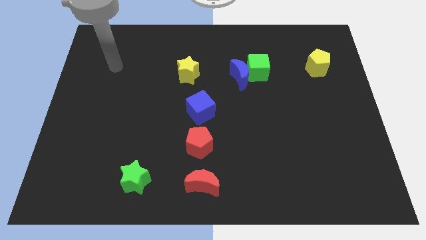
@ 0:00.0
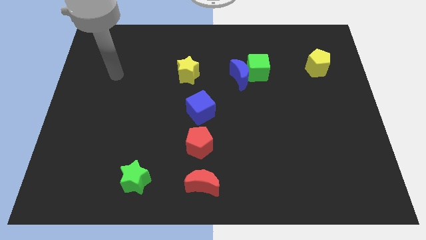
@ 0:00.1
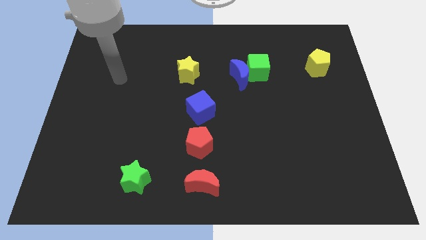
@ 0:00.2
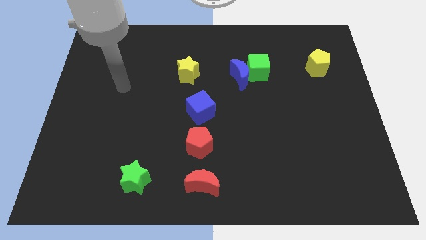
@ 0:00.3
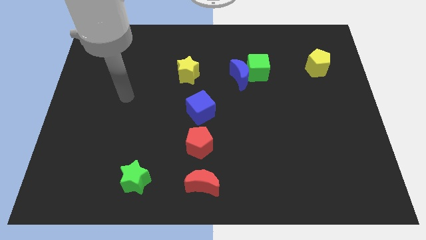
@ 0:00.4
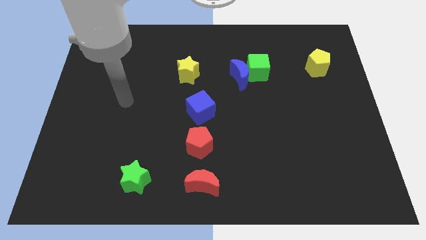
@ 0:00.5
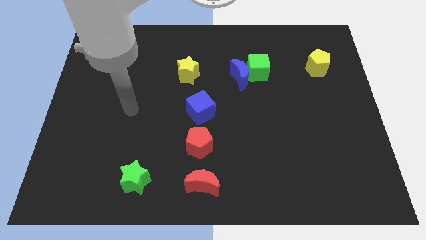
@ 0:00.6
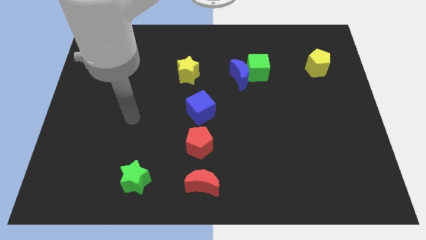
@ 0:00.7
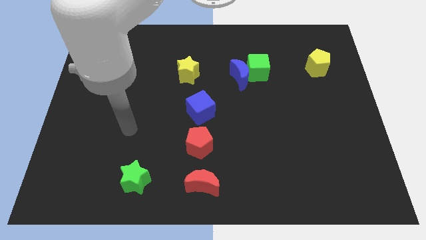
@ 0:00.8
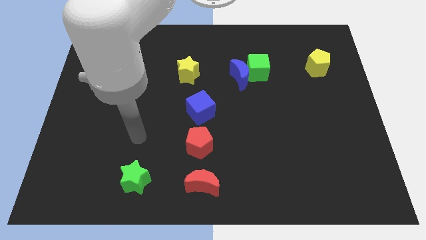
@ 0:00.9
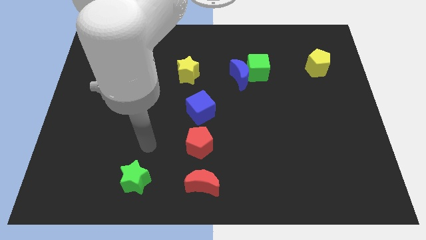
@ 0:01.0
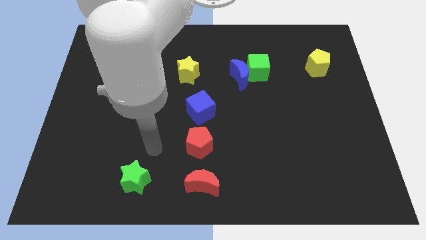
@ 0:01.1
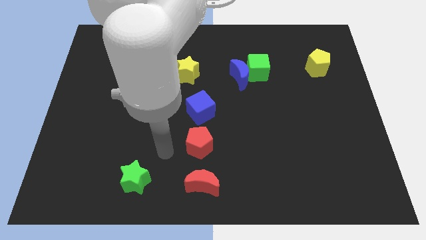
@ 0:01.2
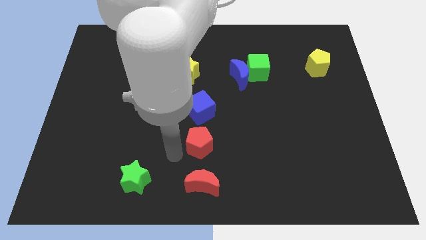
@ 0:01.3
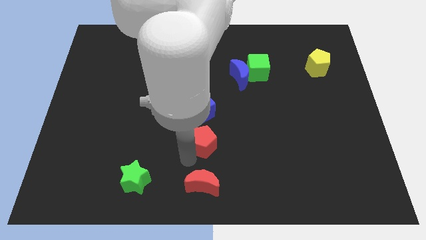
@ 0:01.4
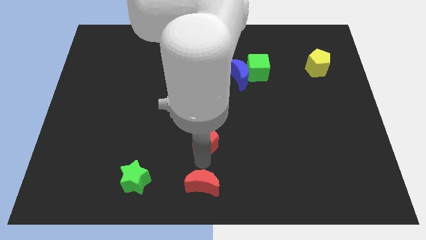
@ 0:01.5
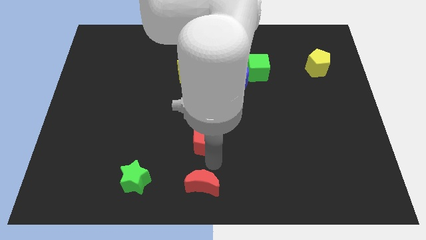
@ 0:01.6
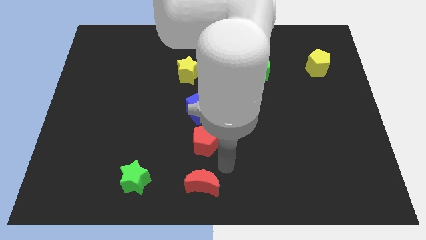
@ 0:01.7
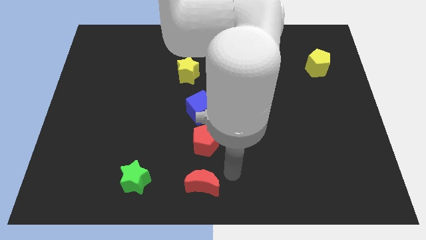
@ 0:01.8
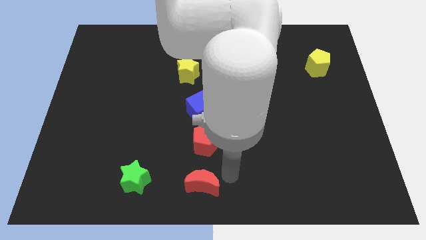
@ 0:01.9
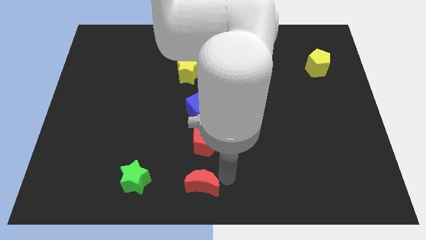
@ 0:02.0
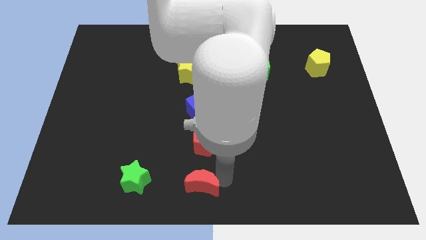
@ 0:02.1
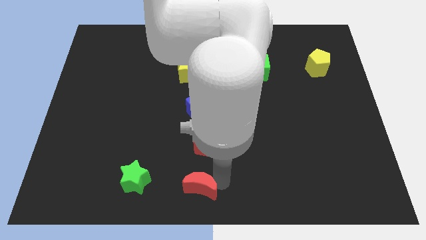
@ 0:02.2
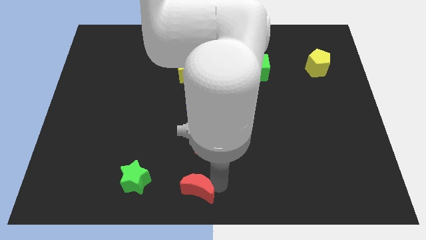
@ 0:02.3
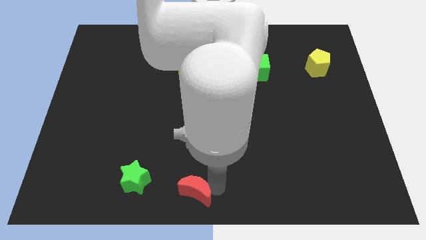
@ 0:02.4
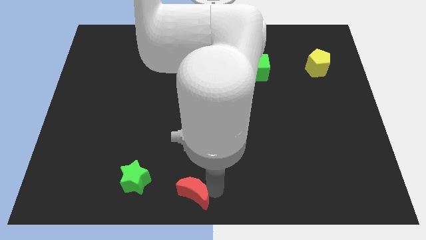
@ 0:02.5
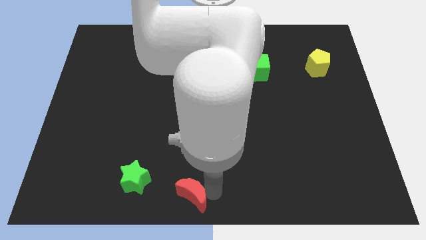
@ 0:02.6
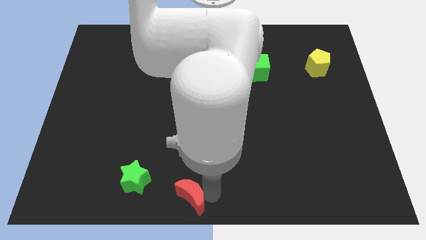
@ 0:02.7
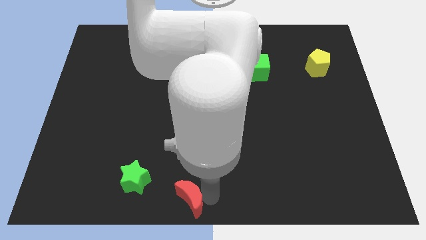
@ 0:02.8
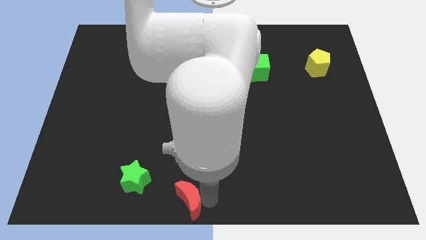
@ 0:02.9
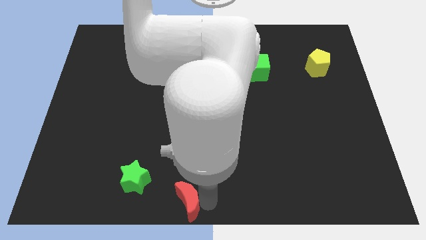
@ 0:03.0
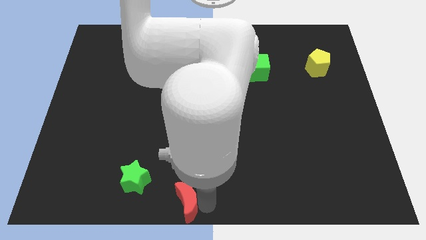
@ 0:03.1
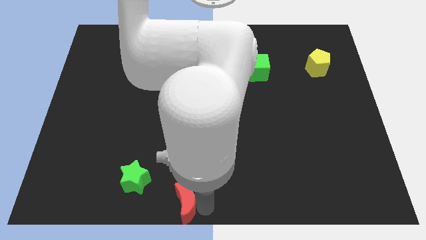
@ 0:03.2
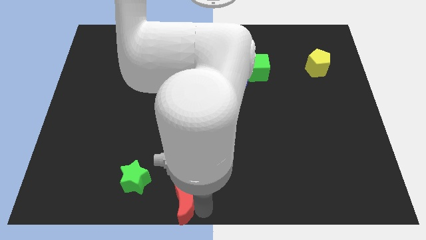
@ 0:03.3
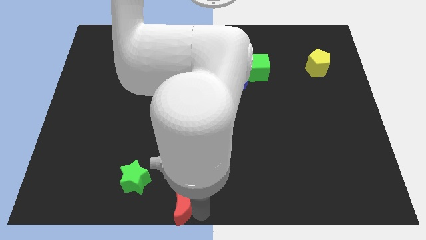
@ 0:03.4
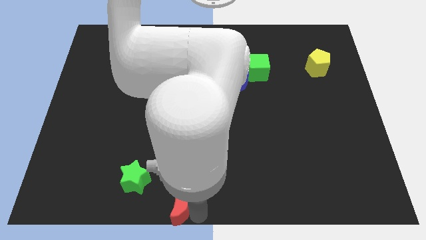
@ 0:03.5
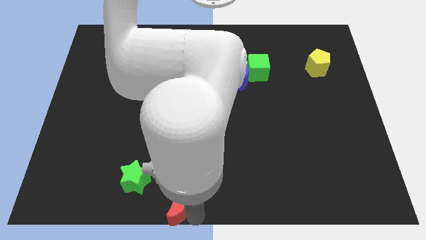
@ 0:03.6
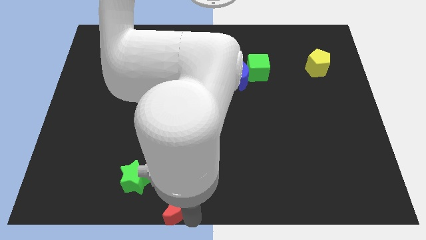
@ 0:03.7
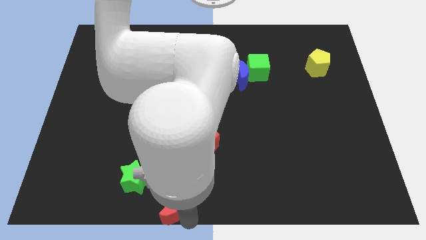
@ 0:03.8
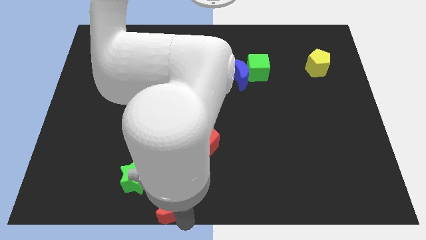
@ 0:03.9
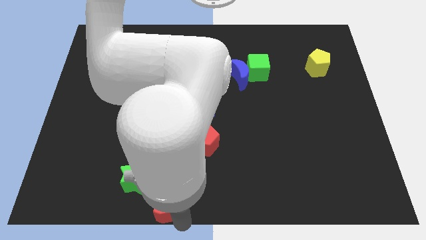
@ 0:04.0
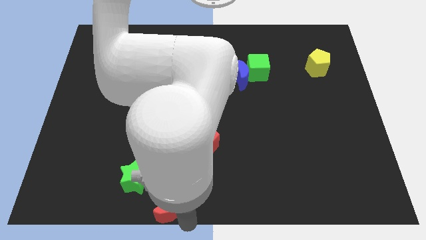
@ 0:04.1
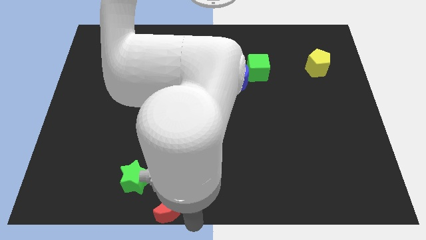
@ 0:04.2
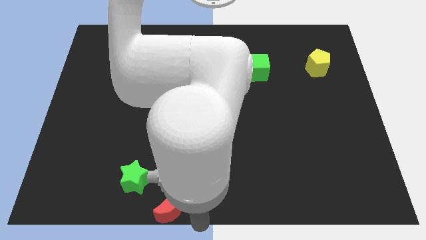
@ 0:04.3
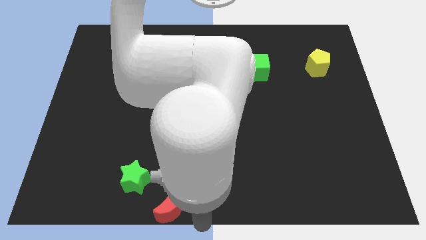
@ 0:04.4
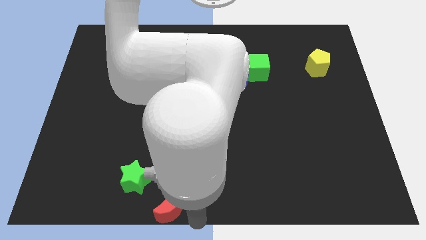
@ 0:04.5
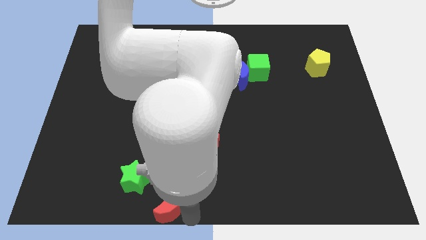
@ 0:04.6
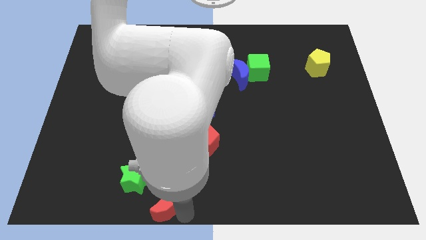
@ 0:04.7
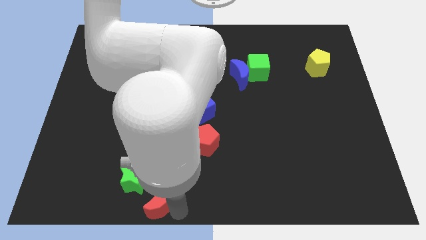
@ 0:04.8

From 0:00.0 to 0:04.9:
slightly push the red moon to the left

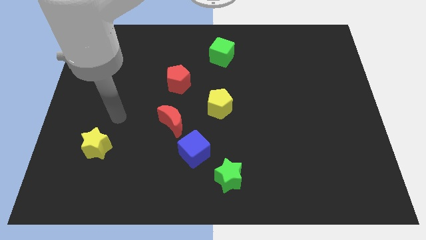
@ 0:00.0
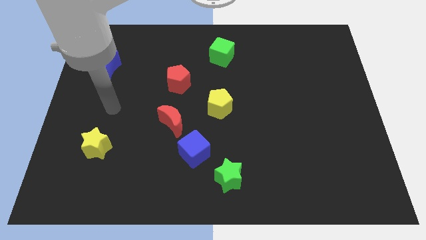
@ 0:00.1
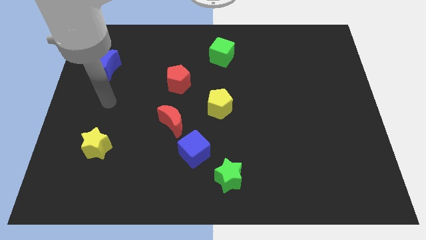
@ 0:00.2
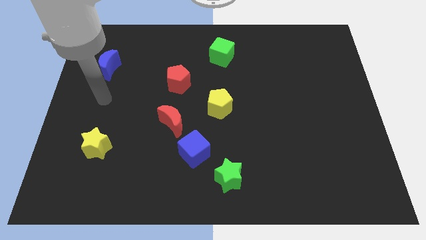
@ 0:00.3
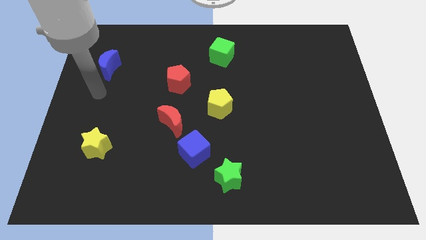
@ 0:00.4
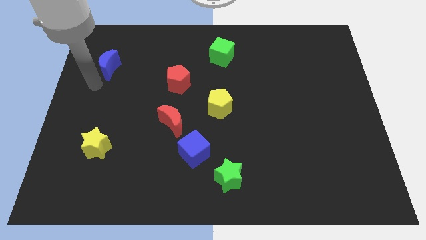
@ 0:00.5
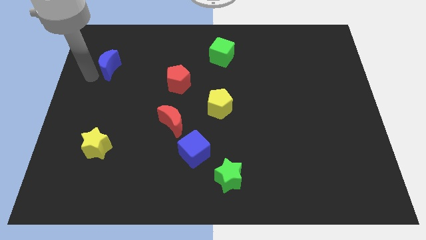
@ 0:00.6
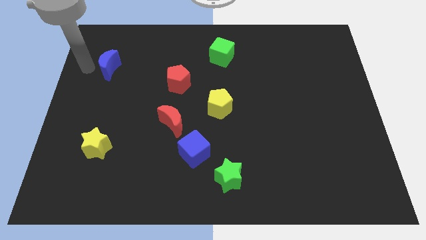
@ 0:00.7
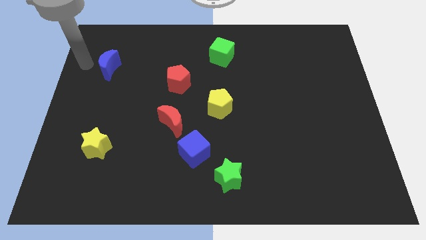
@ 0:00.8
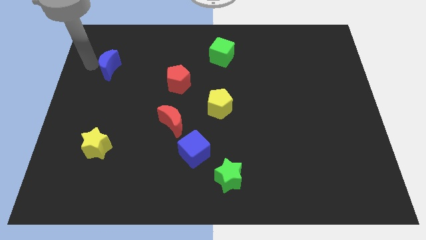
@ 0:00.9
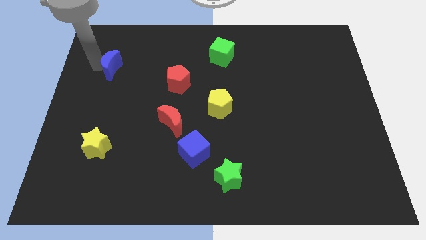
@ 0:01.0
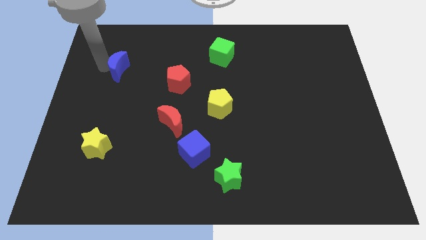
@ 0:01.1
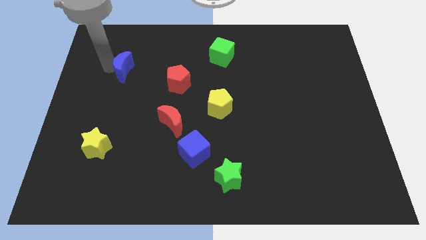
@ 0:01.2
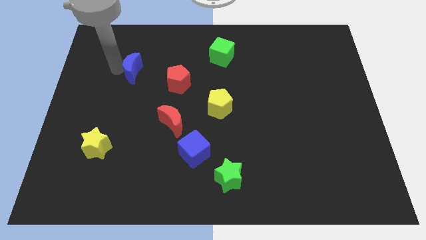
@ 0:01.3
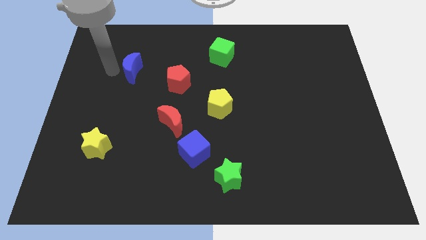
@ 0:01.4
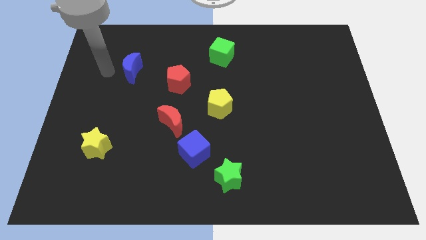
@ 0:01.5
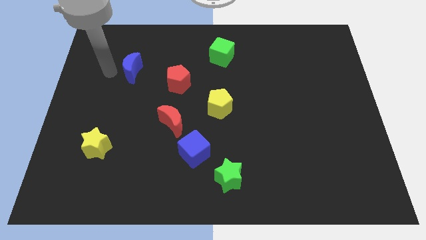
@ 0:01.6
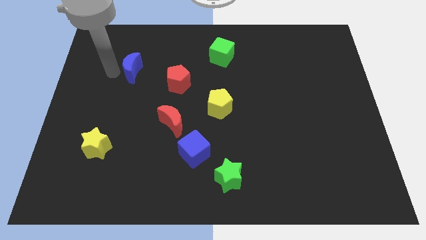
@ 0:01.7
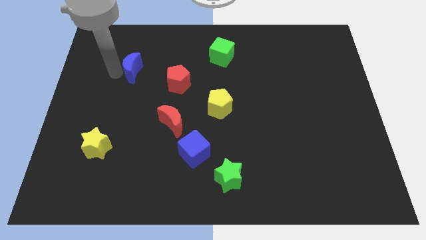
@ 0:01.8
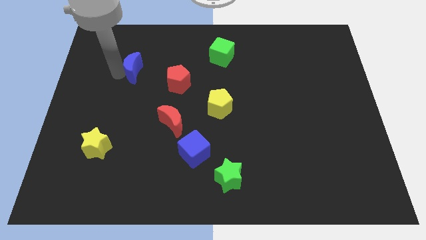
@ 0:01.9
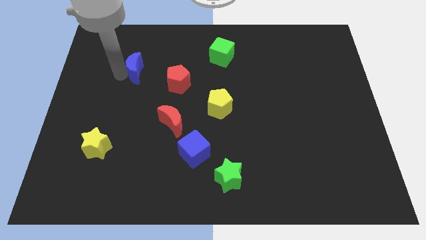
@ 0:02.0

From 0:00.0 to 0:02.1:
slightly slide the blue moon to the right

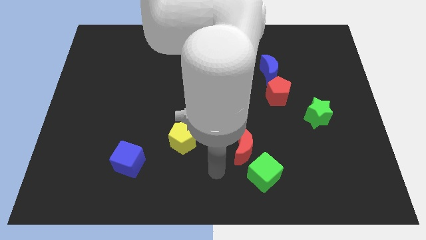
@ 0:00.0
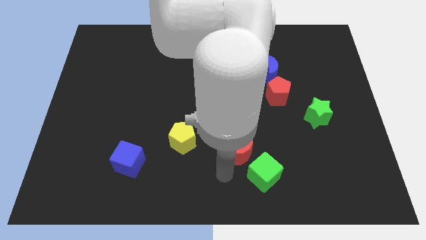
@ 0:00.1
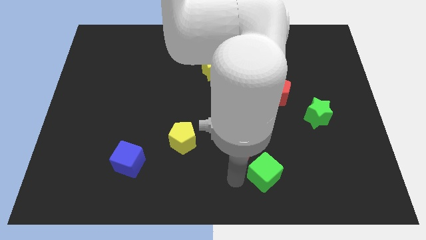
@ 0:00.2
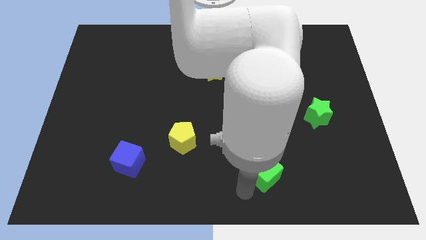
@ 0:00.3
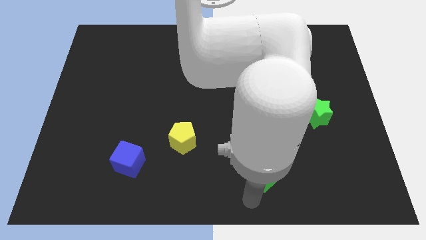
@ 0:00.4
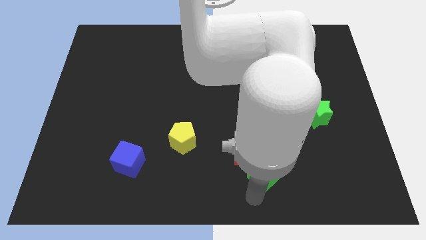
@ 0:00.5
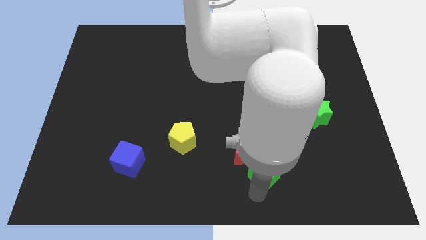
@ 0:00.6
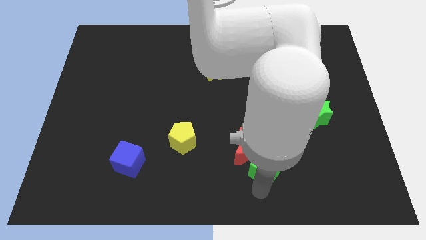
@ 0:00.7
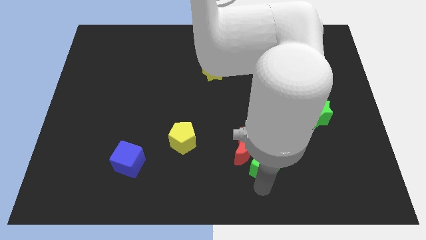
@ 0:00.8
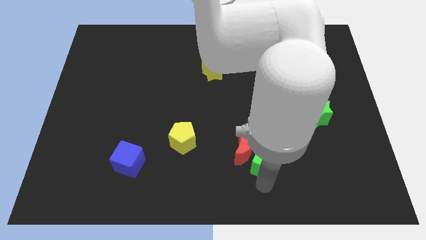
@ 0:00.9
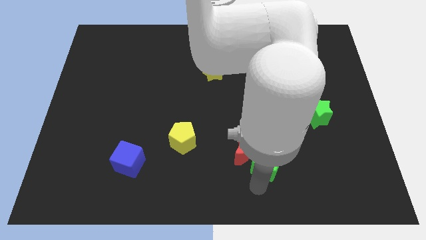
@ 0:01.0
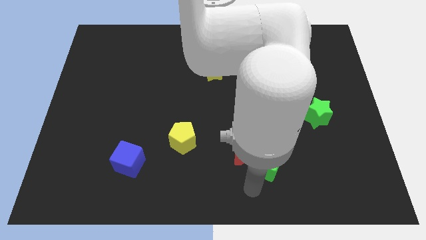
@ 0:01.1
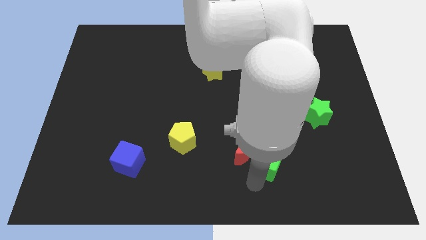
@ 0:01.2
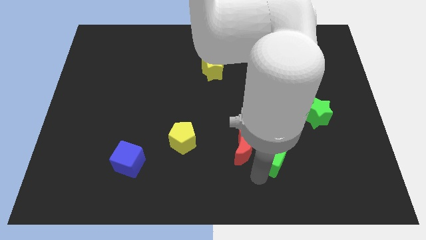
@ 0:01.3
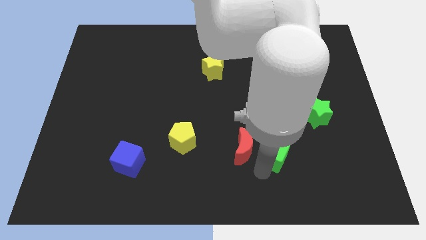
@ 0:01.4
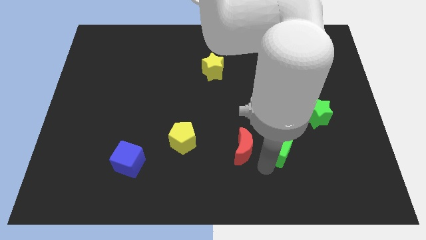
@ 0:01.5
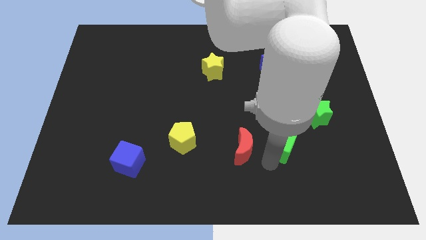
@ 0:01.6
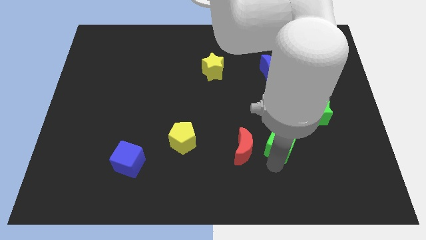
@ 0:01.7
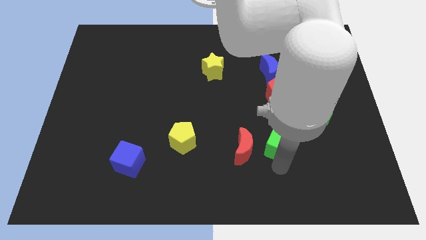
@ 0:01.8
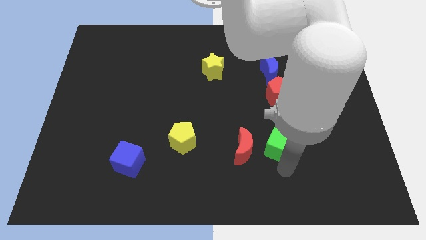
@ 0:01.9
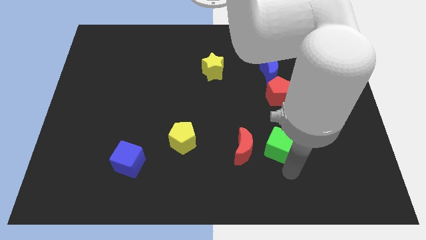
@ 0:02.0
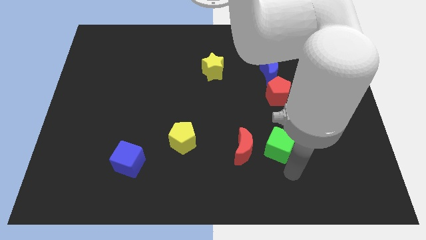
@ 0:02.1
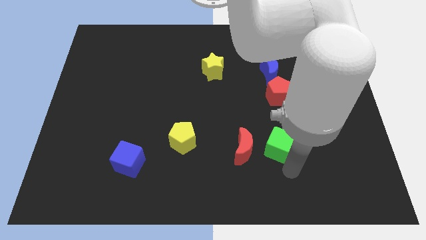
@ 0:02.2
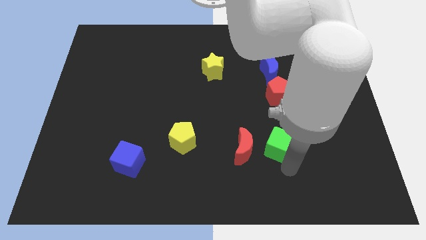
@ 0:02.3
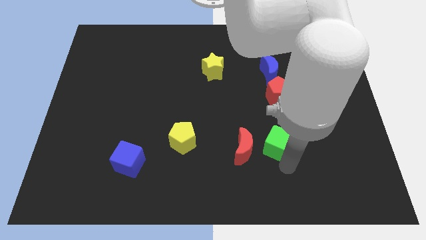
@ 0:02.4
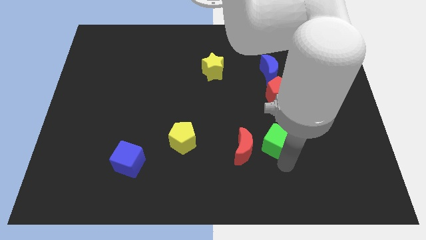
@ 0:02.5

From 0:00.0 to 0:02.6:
slightly push the green cube up
